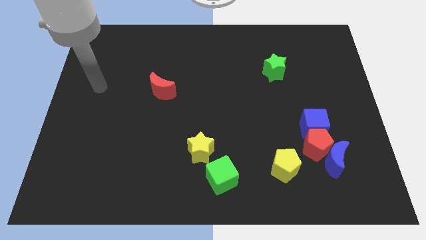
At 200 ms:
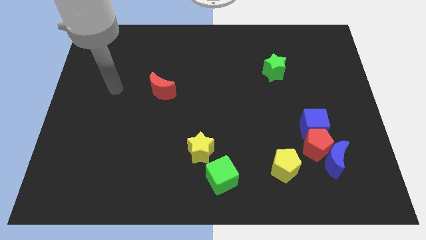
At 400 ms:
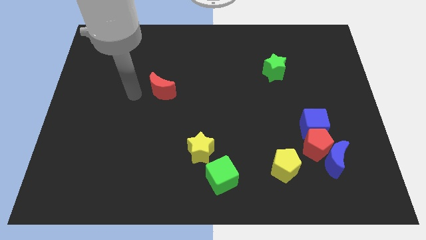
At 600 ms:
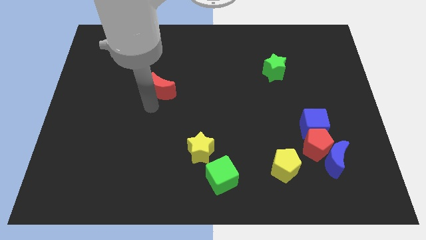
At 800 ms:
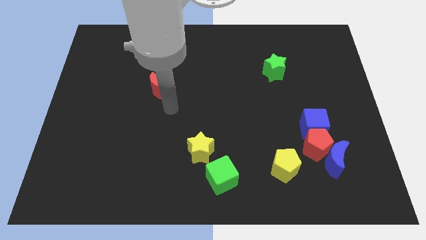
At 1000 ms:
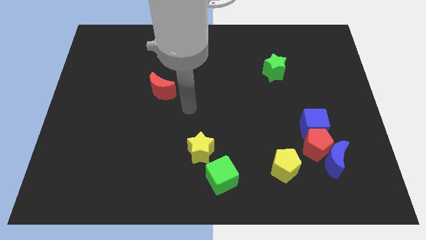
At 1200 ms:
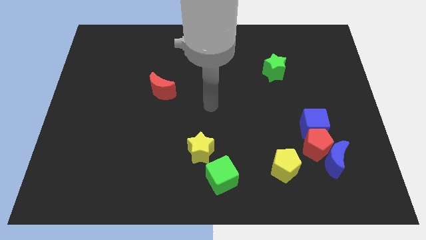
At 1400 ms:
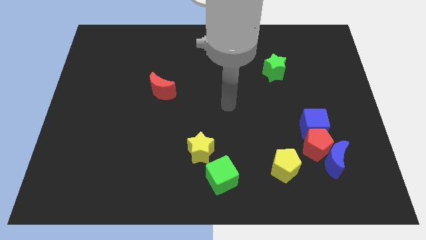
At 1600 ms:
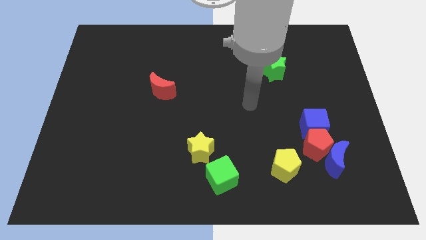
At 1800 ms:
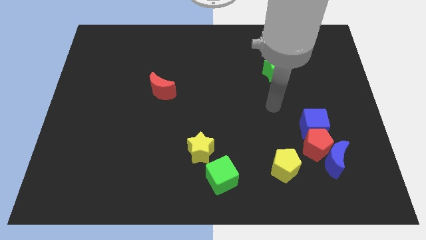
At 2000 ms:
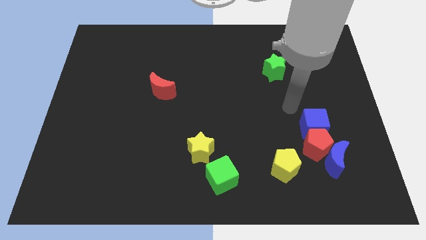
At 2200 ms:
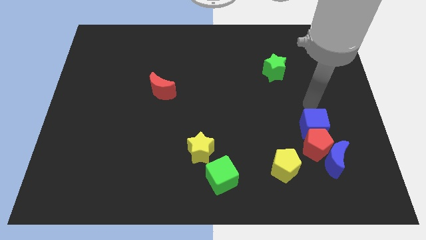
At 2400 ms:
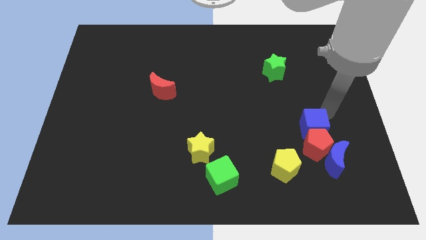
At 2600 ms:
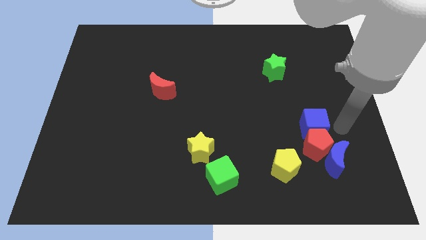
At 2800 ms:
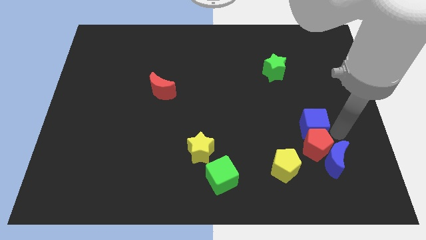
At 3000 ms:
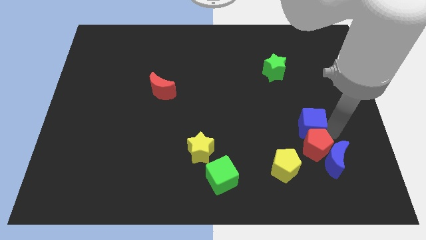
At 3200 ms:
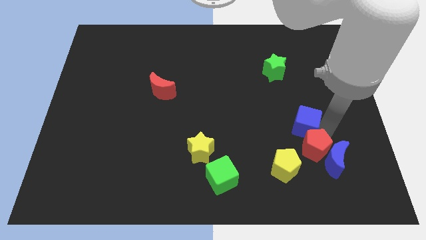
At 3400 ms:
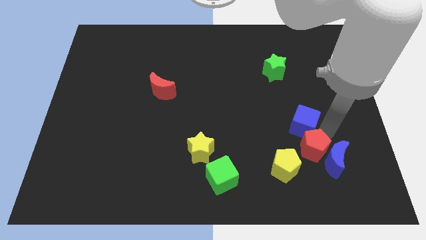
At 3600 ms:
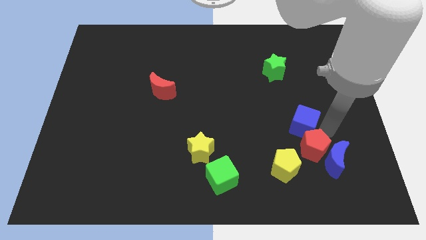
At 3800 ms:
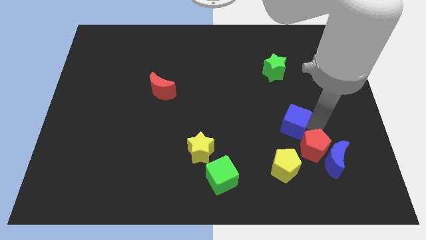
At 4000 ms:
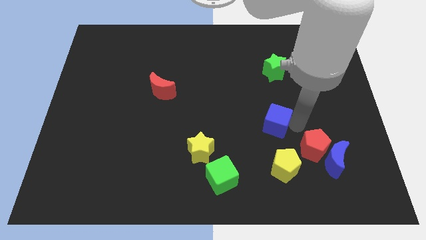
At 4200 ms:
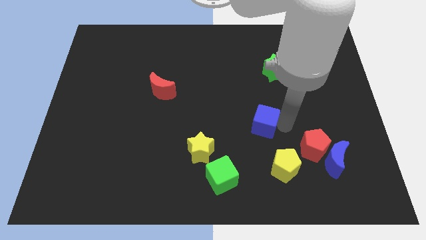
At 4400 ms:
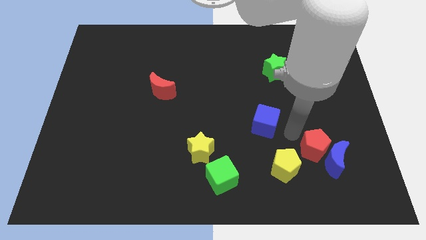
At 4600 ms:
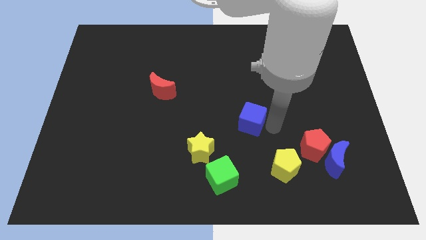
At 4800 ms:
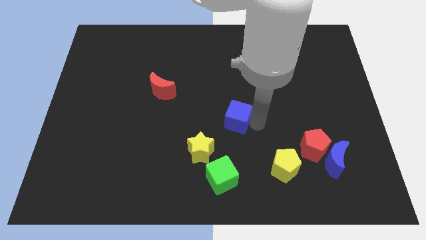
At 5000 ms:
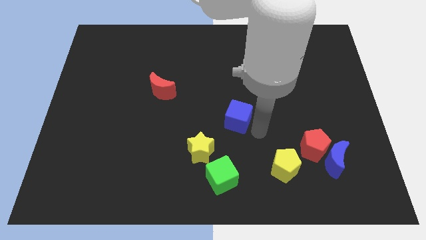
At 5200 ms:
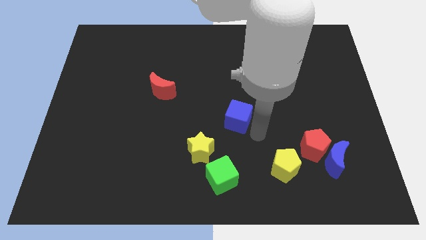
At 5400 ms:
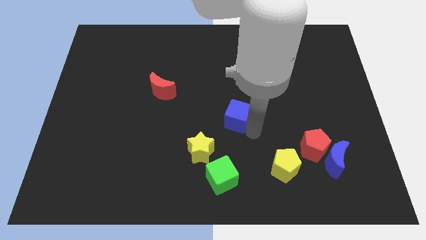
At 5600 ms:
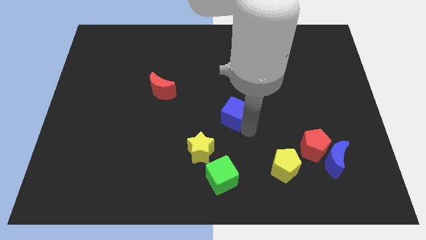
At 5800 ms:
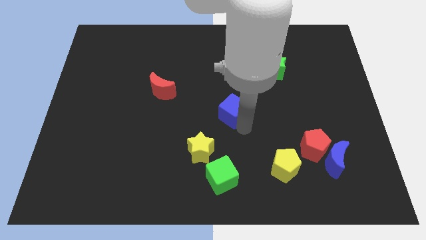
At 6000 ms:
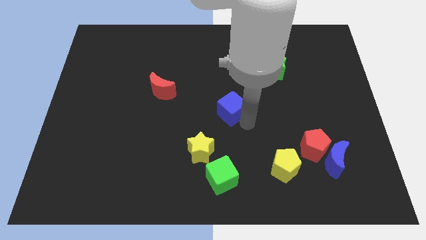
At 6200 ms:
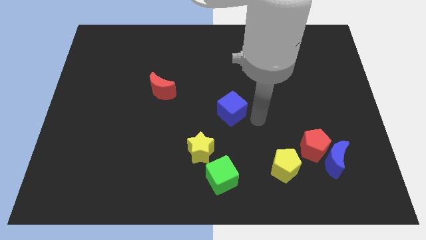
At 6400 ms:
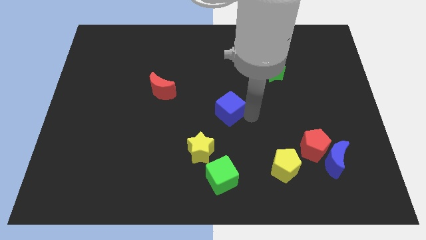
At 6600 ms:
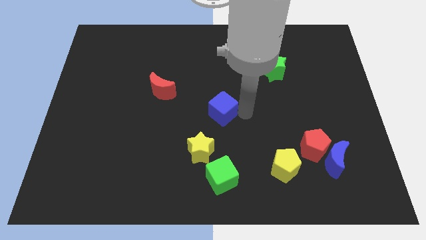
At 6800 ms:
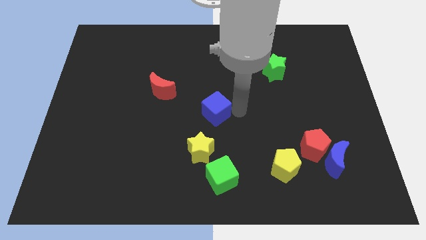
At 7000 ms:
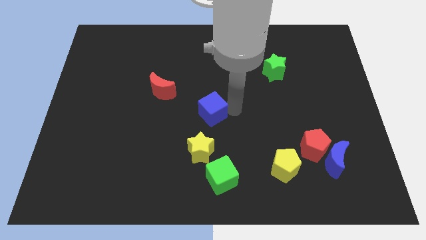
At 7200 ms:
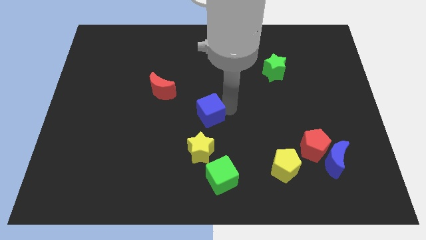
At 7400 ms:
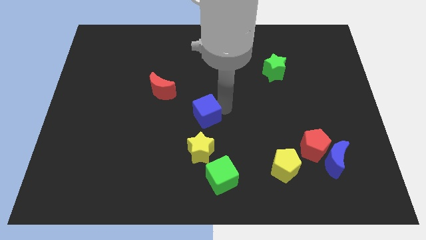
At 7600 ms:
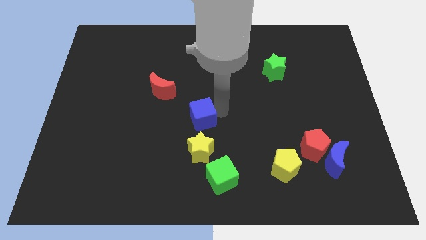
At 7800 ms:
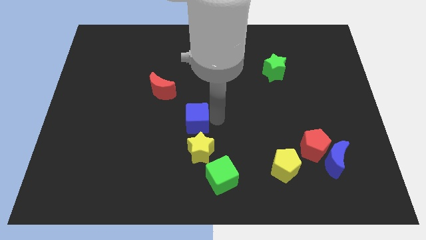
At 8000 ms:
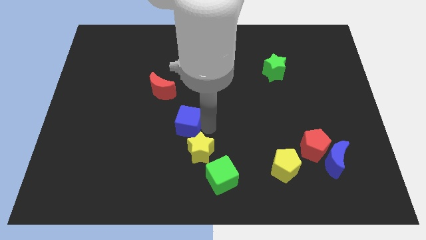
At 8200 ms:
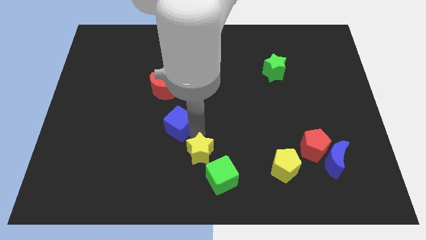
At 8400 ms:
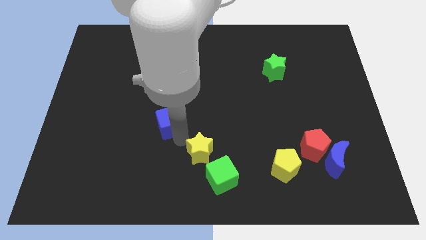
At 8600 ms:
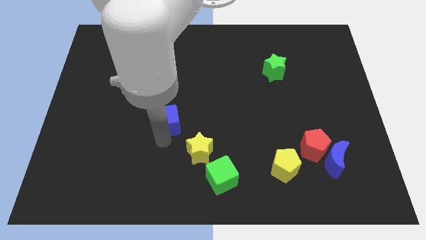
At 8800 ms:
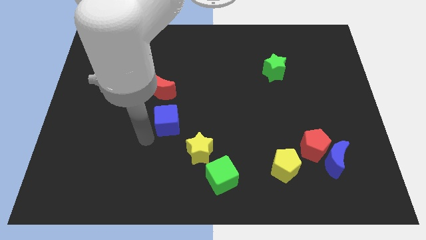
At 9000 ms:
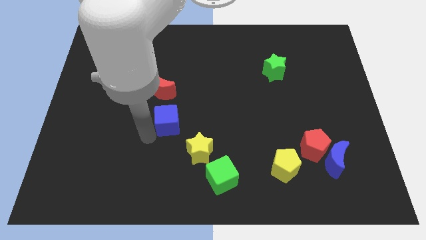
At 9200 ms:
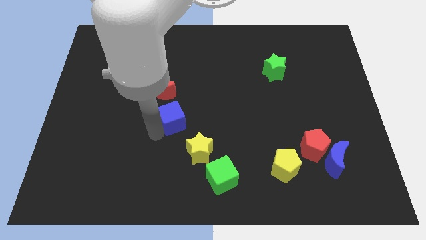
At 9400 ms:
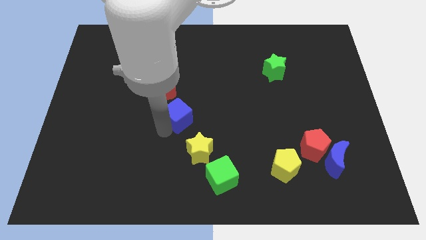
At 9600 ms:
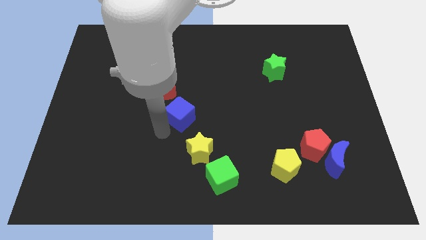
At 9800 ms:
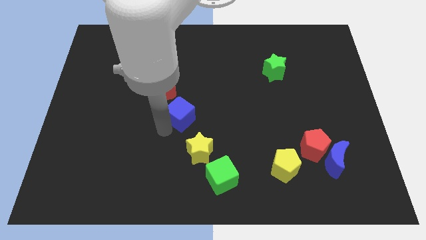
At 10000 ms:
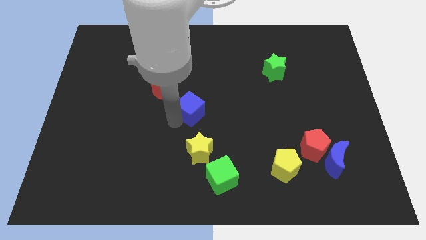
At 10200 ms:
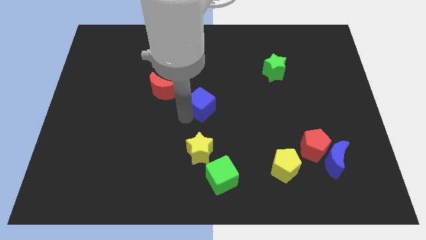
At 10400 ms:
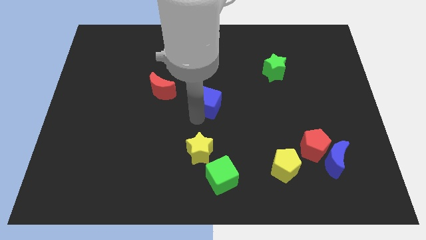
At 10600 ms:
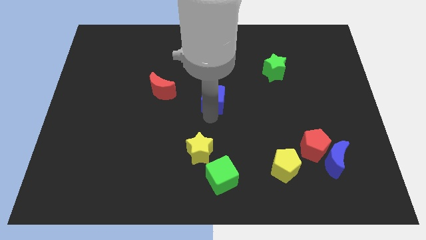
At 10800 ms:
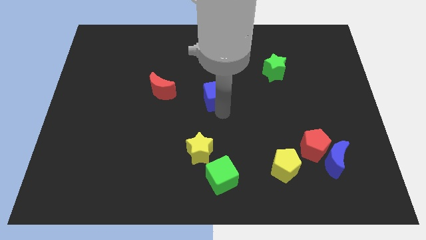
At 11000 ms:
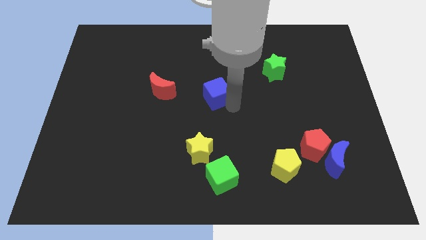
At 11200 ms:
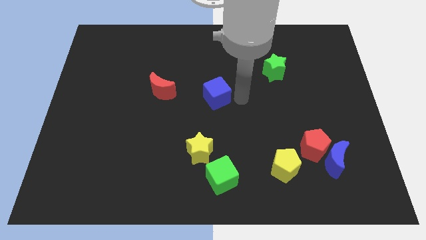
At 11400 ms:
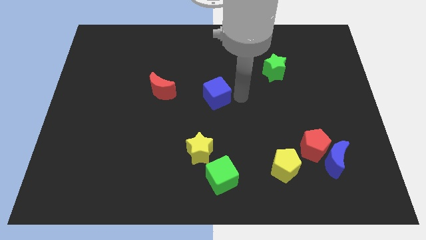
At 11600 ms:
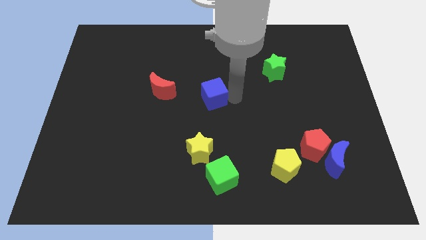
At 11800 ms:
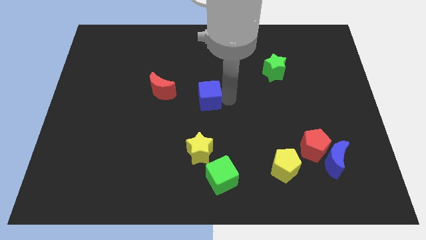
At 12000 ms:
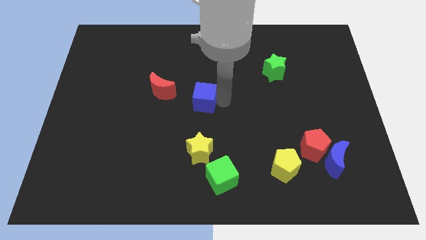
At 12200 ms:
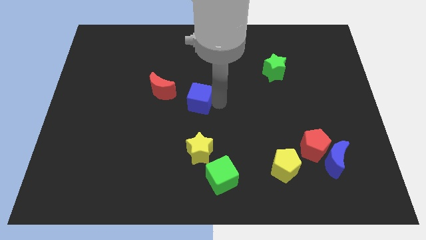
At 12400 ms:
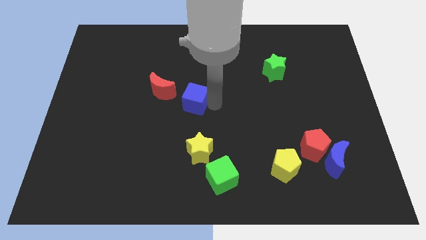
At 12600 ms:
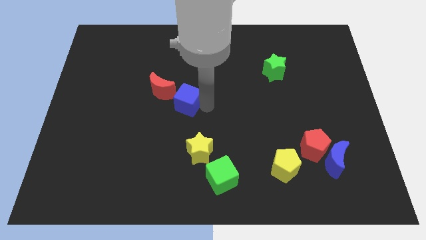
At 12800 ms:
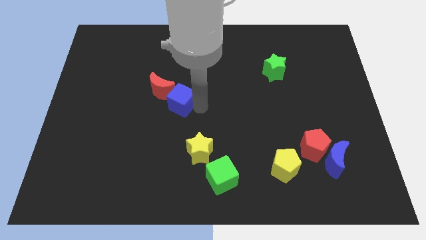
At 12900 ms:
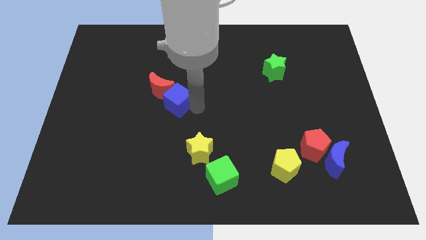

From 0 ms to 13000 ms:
slide the blue cube to the red moon

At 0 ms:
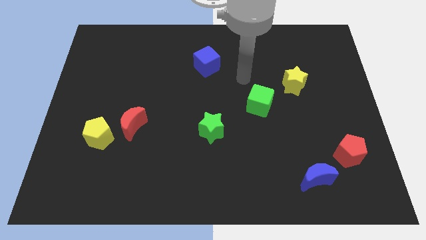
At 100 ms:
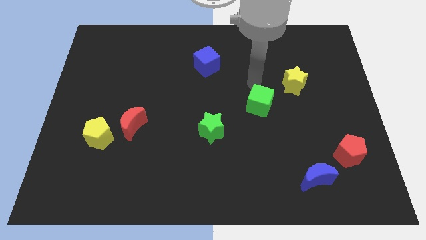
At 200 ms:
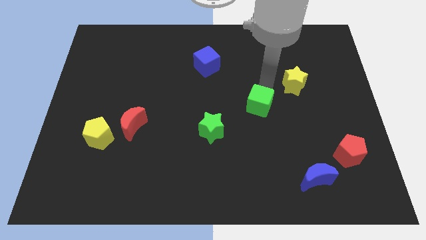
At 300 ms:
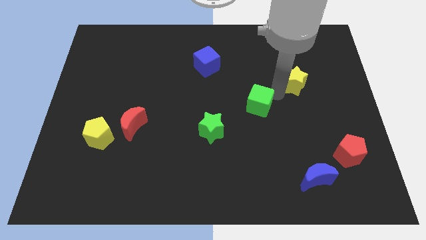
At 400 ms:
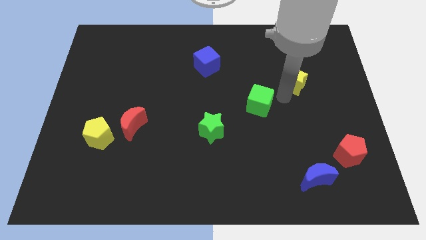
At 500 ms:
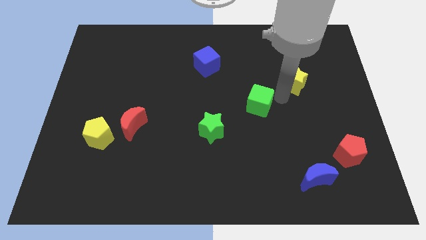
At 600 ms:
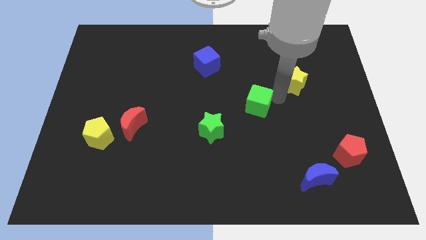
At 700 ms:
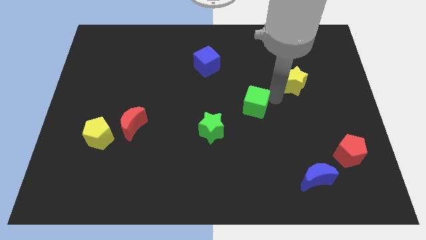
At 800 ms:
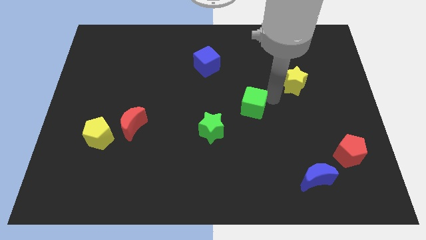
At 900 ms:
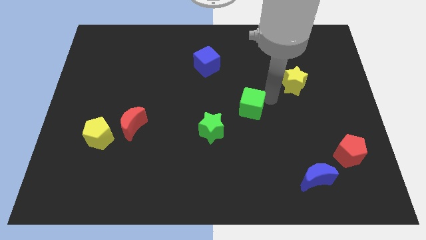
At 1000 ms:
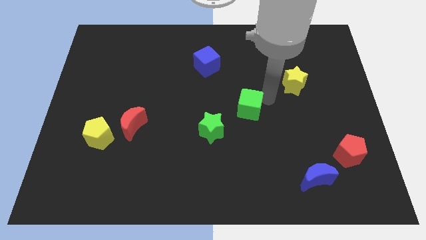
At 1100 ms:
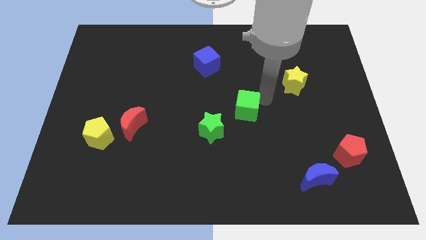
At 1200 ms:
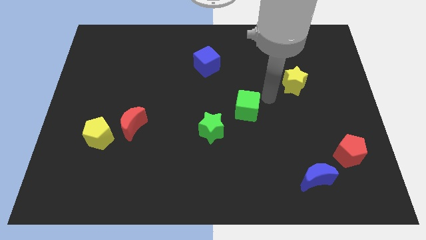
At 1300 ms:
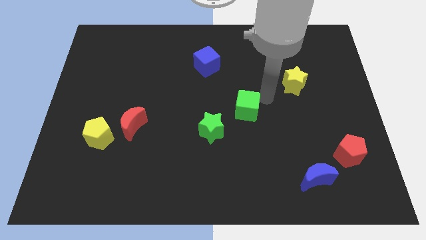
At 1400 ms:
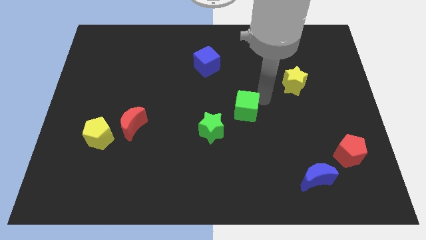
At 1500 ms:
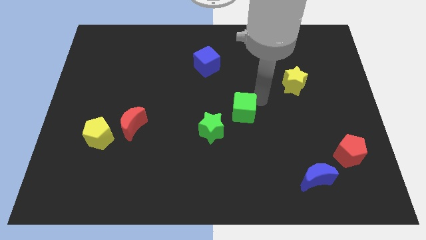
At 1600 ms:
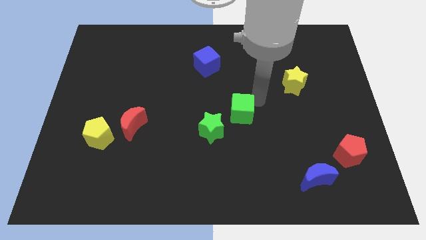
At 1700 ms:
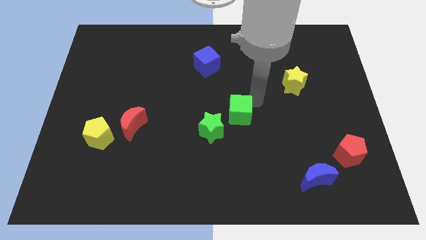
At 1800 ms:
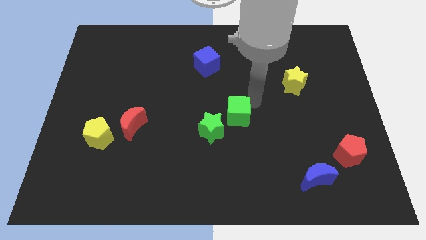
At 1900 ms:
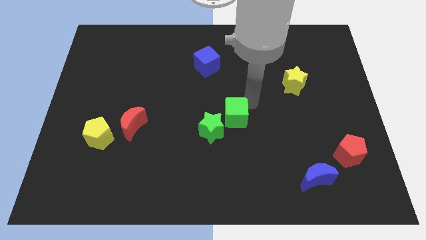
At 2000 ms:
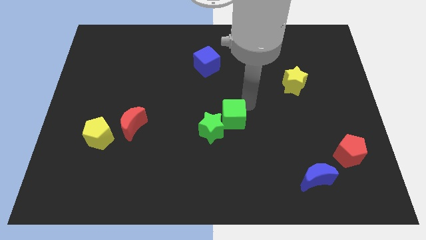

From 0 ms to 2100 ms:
push the green cube next to the green star
